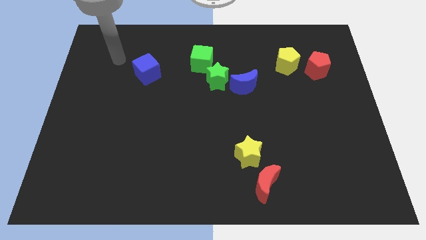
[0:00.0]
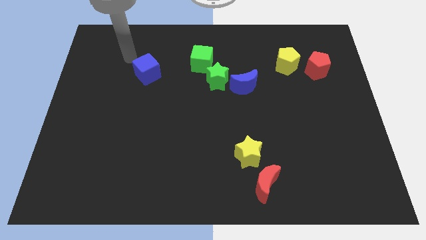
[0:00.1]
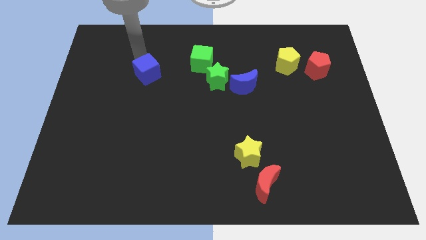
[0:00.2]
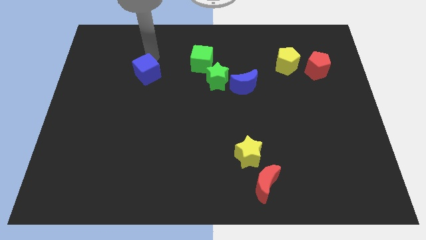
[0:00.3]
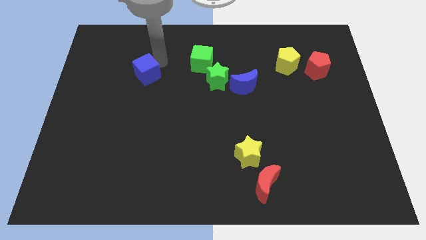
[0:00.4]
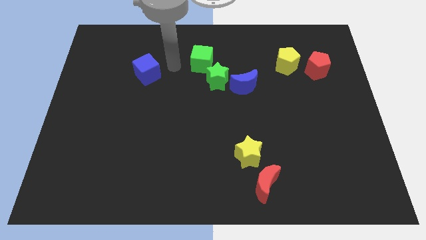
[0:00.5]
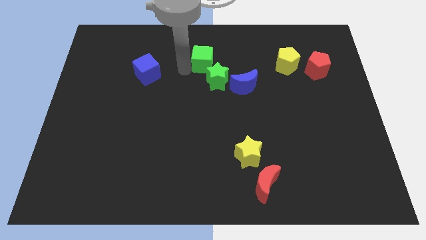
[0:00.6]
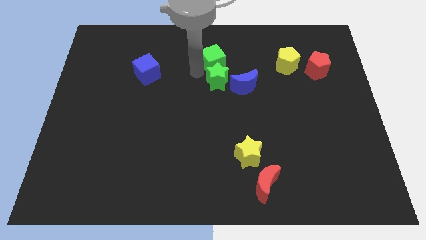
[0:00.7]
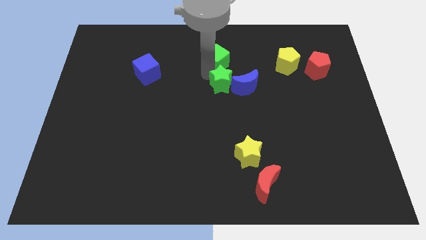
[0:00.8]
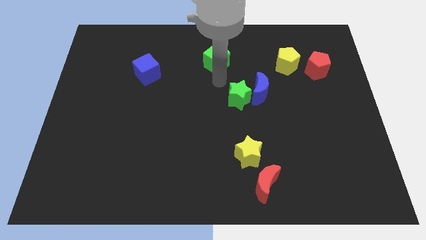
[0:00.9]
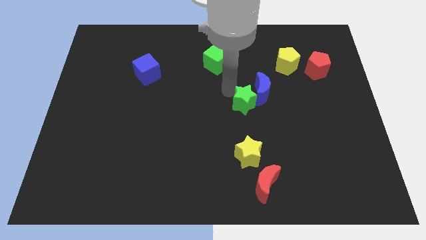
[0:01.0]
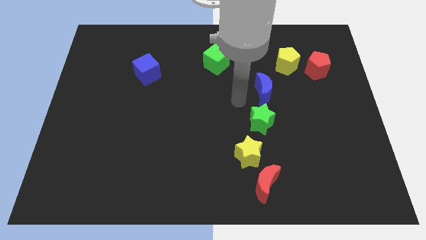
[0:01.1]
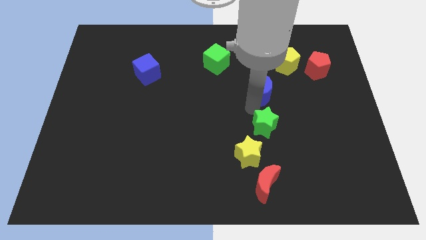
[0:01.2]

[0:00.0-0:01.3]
pull the blue moon apart from the green star

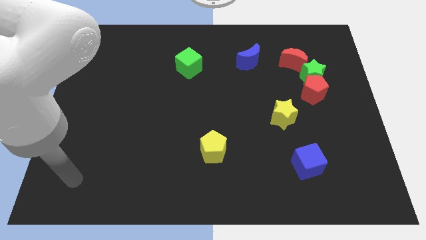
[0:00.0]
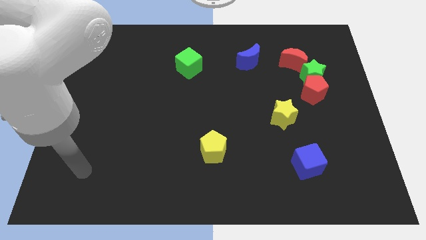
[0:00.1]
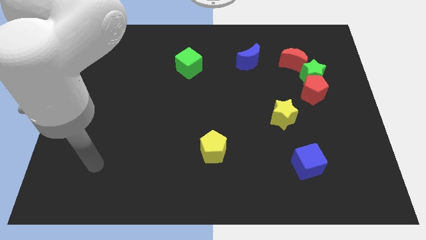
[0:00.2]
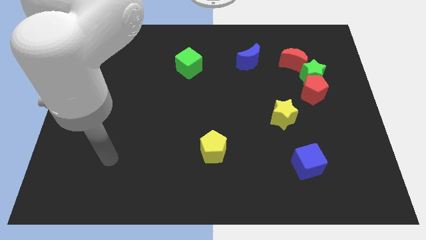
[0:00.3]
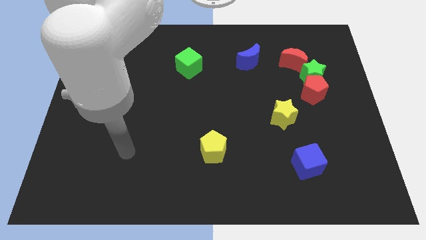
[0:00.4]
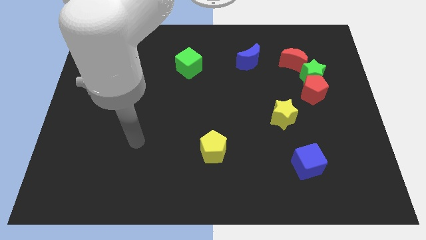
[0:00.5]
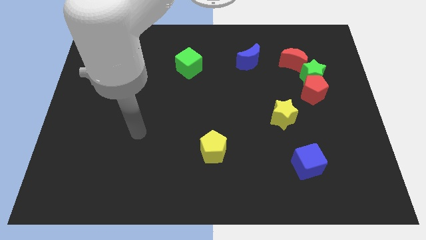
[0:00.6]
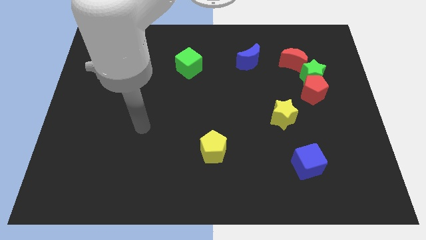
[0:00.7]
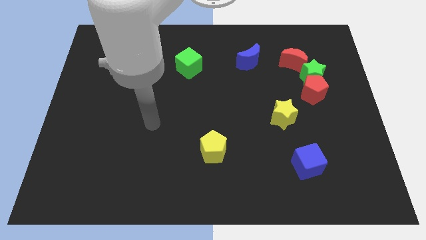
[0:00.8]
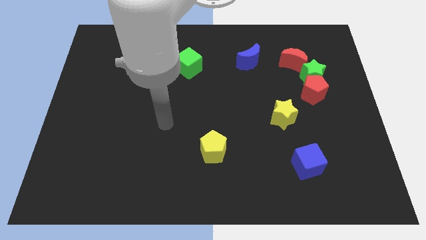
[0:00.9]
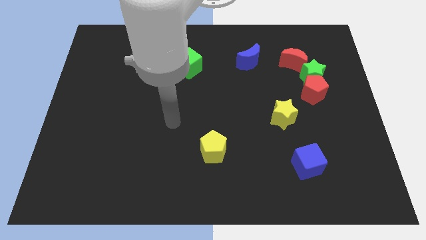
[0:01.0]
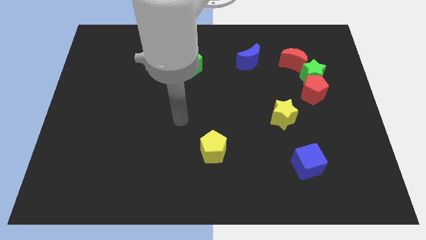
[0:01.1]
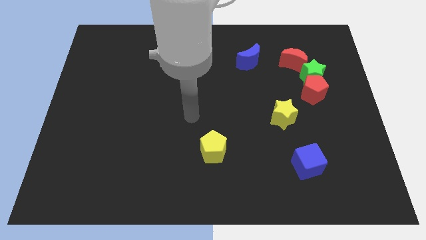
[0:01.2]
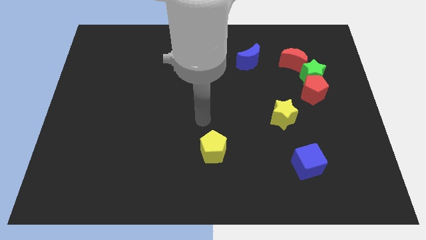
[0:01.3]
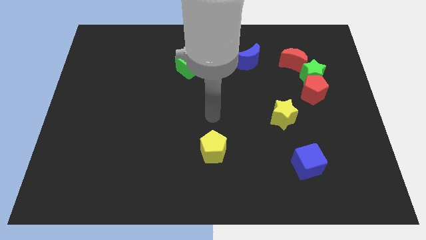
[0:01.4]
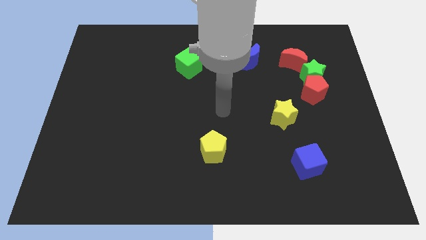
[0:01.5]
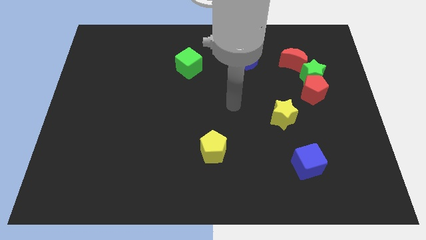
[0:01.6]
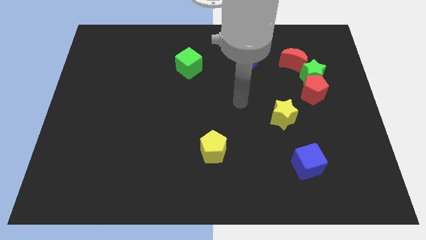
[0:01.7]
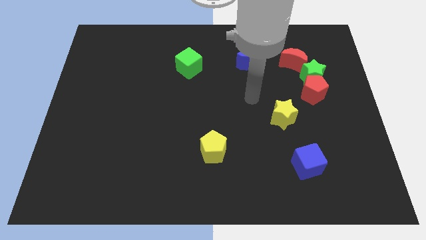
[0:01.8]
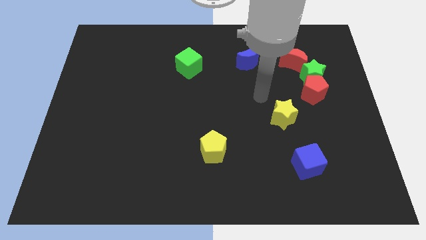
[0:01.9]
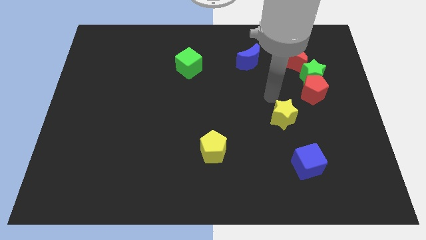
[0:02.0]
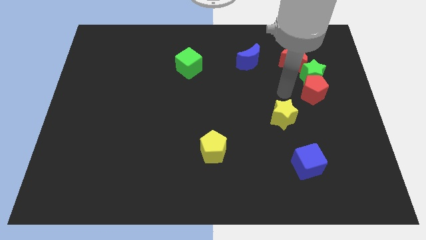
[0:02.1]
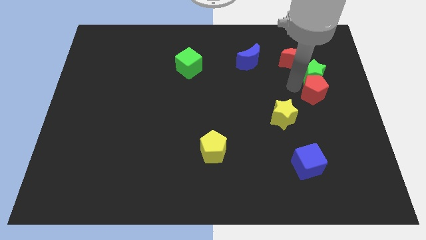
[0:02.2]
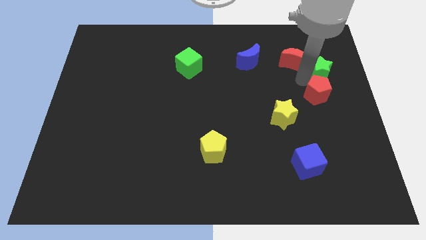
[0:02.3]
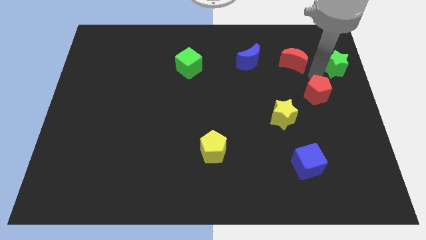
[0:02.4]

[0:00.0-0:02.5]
pull the red pentagon apart from the green star

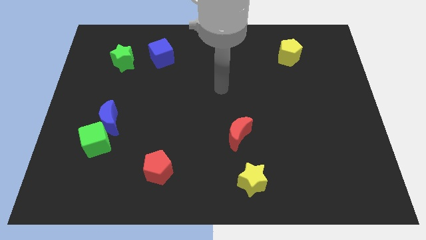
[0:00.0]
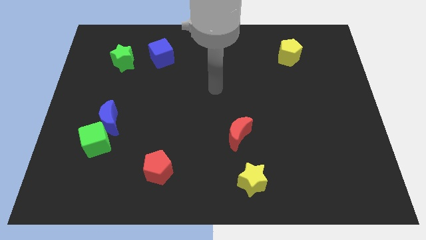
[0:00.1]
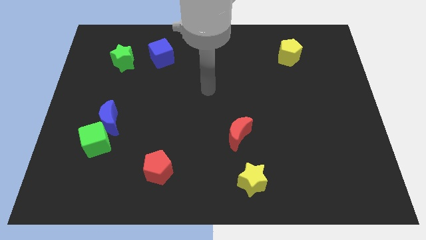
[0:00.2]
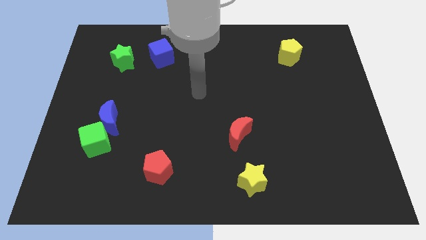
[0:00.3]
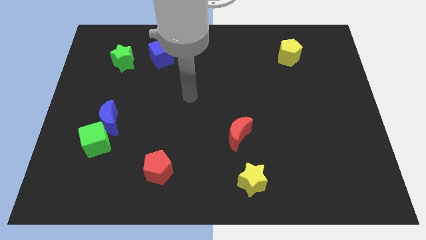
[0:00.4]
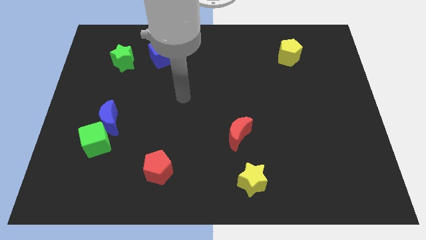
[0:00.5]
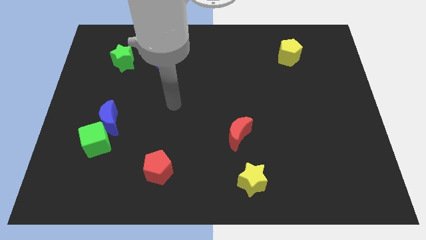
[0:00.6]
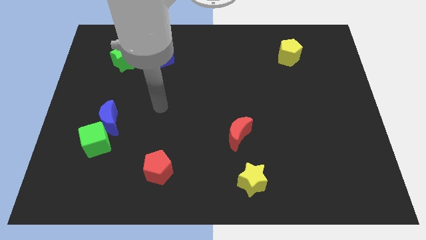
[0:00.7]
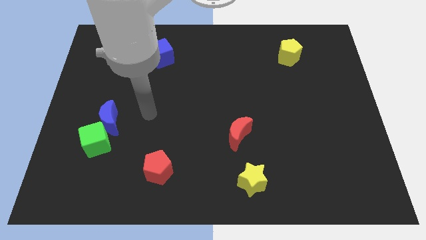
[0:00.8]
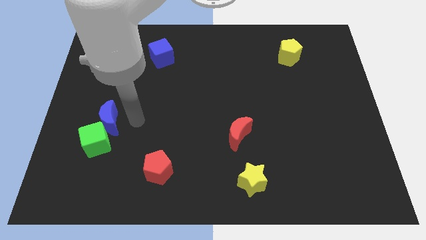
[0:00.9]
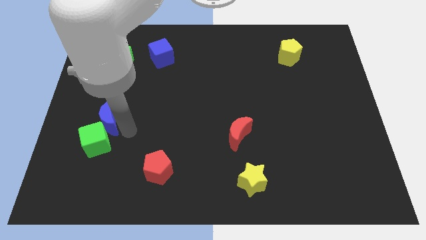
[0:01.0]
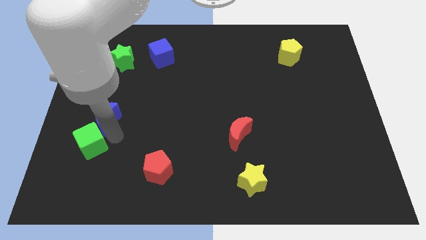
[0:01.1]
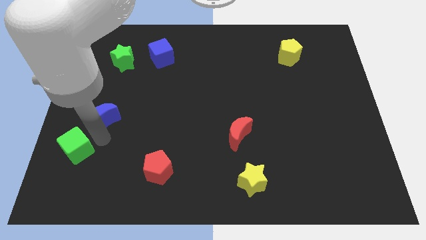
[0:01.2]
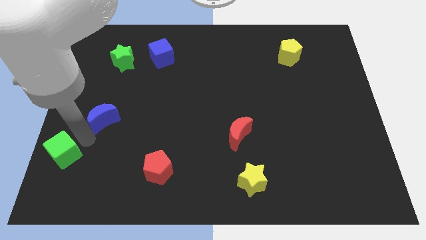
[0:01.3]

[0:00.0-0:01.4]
pull the blue moon apart from the green cube

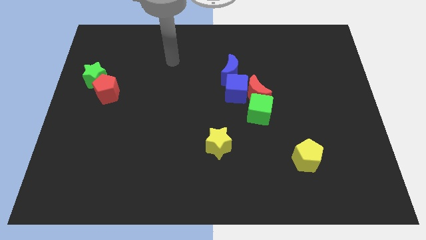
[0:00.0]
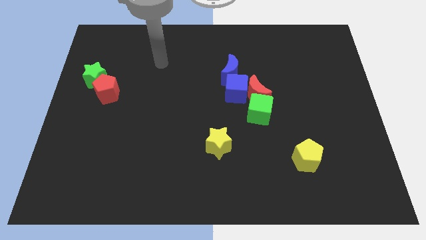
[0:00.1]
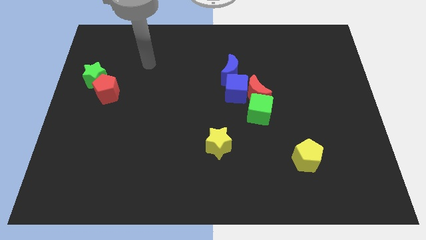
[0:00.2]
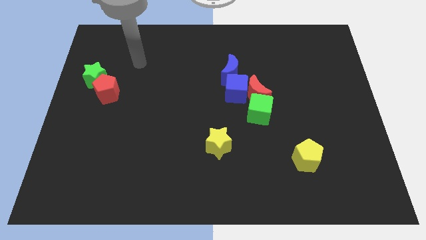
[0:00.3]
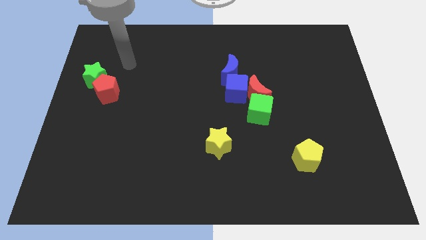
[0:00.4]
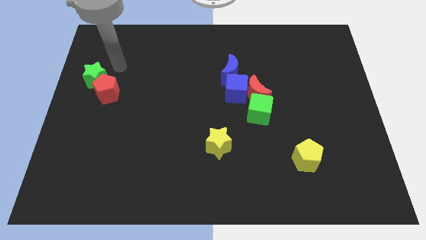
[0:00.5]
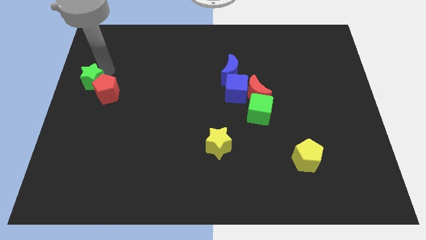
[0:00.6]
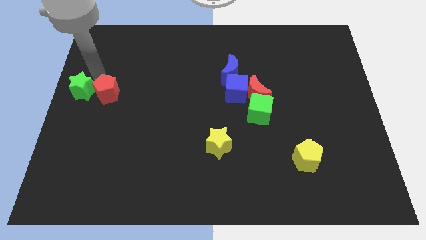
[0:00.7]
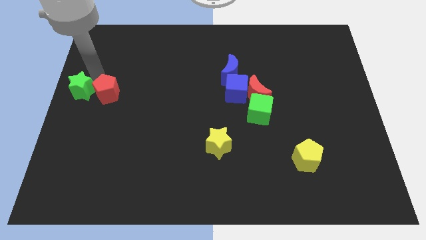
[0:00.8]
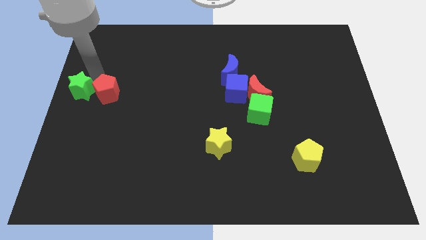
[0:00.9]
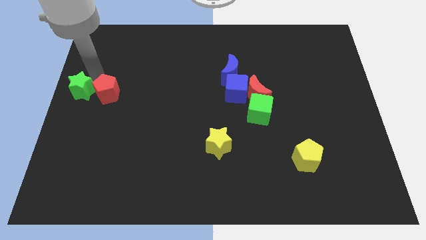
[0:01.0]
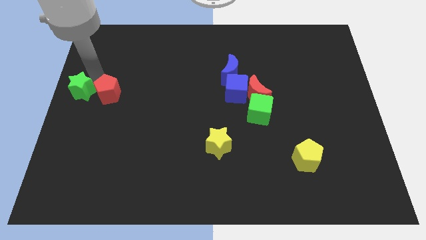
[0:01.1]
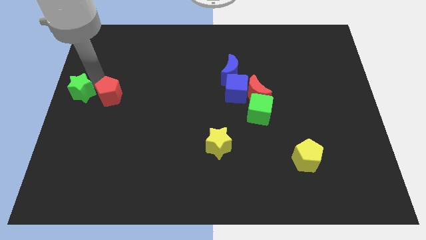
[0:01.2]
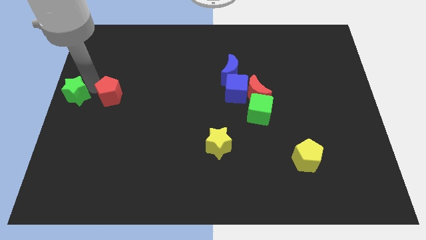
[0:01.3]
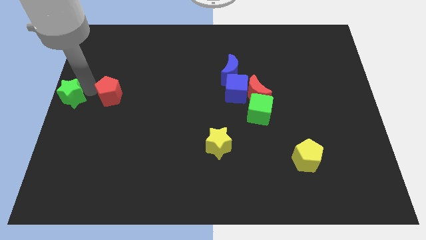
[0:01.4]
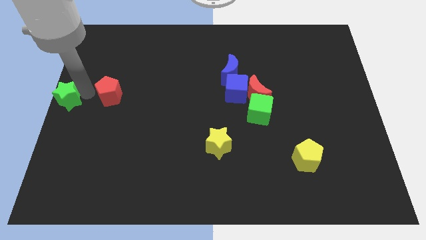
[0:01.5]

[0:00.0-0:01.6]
move the red pentagon away from the green star

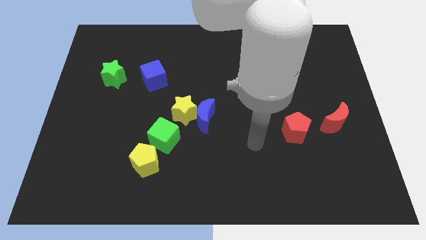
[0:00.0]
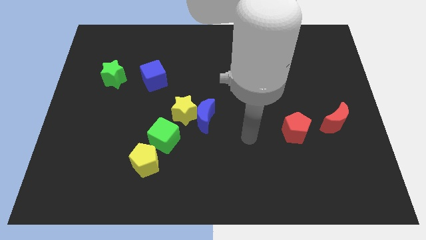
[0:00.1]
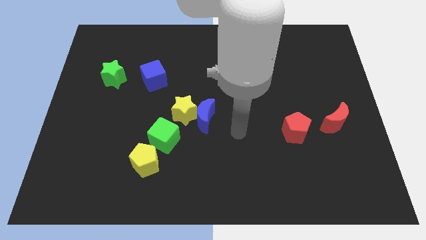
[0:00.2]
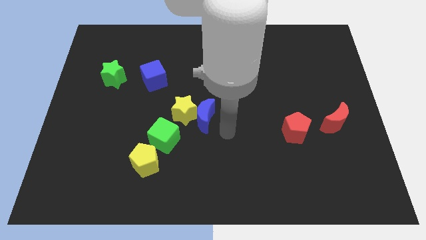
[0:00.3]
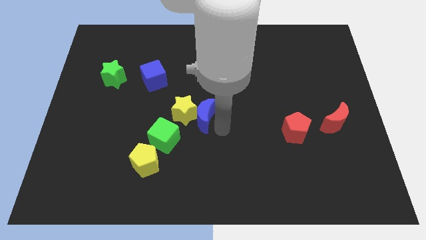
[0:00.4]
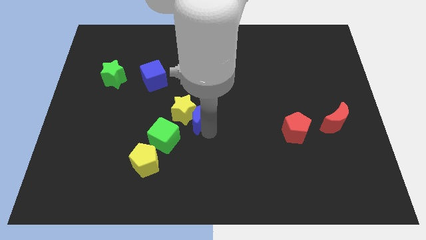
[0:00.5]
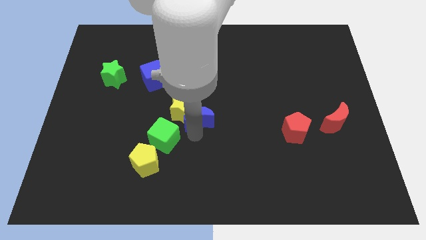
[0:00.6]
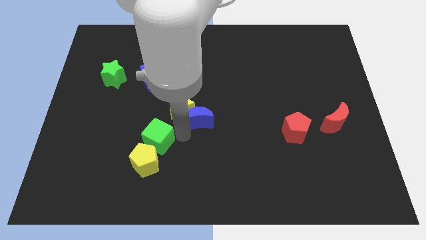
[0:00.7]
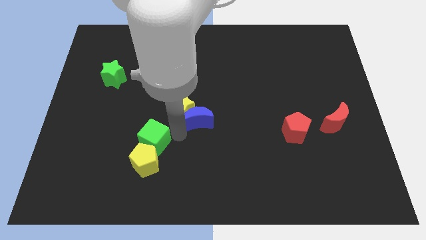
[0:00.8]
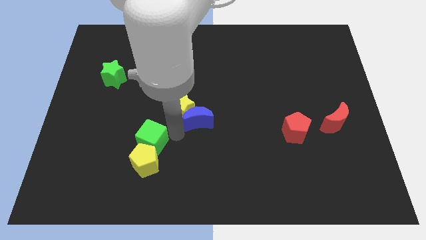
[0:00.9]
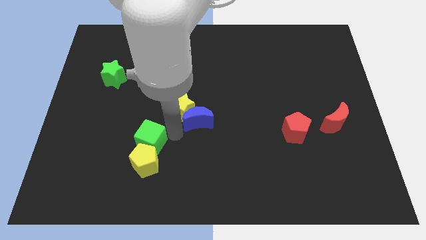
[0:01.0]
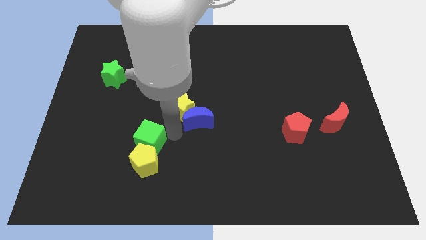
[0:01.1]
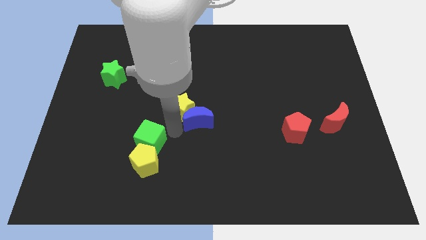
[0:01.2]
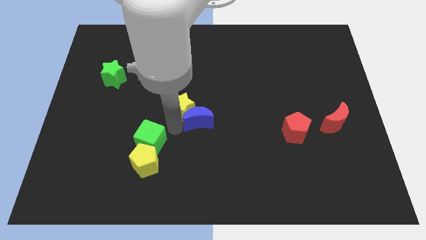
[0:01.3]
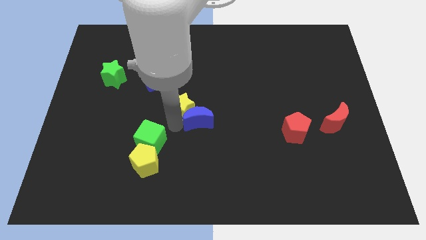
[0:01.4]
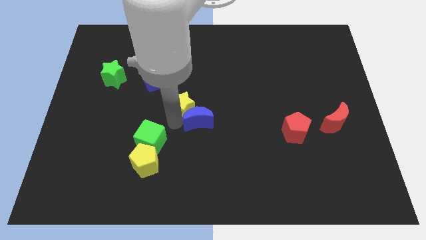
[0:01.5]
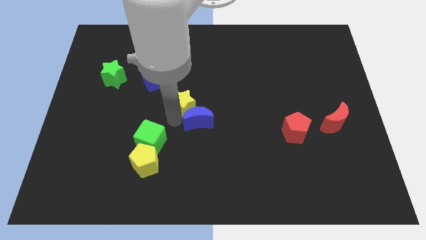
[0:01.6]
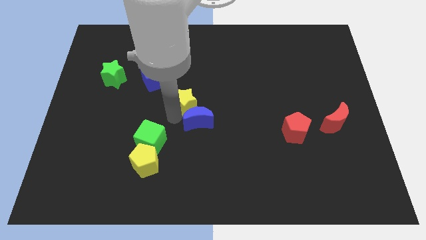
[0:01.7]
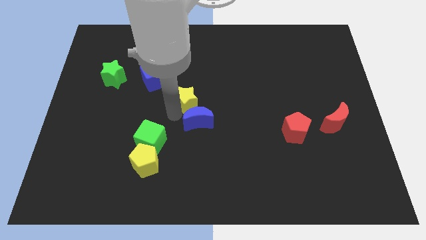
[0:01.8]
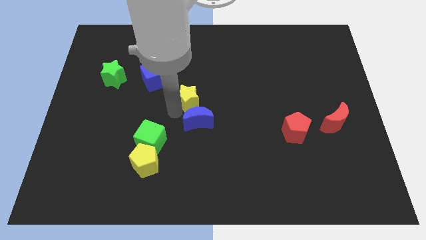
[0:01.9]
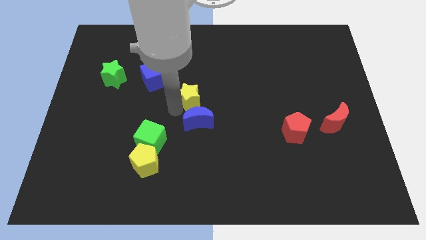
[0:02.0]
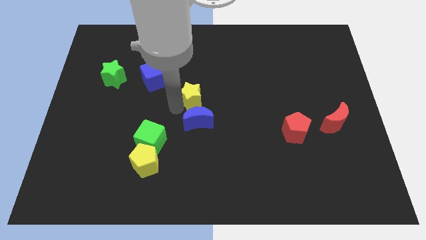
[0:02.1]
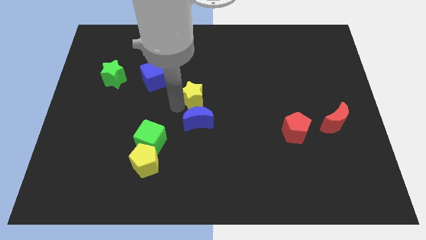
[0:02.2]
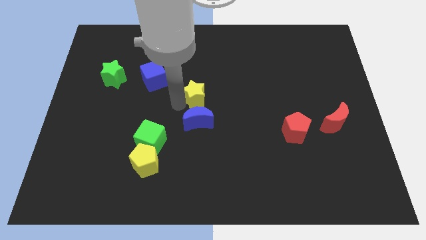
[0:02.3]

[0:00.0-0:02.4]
separate the yellow star from the blue moon and green cube
